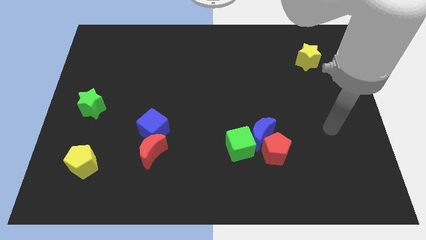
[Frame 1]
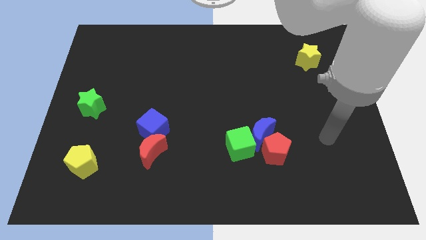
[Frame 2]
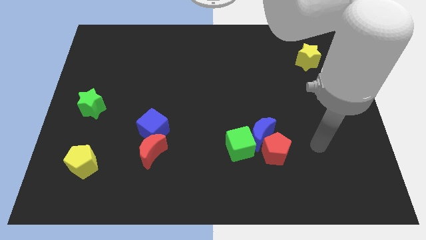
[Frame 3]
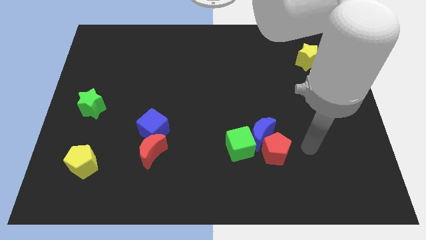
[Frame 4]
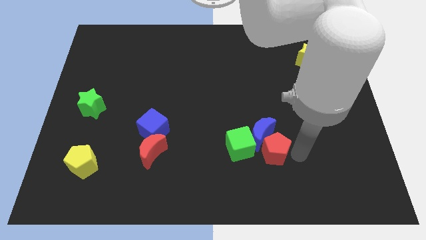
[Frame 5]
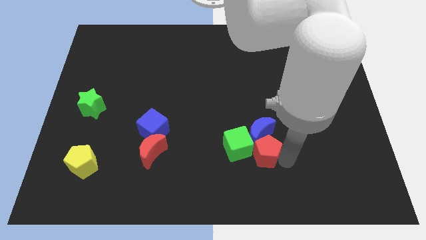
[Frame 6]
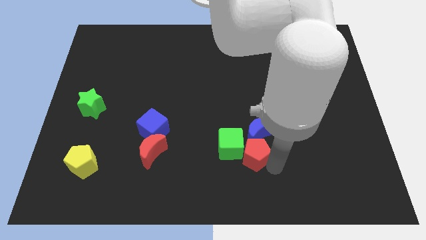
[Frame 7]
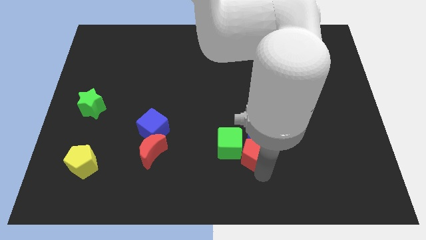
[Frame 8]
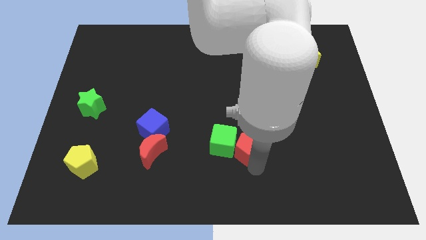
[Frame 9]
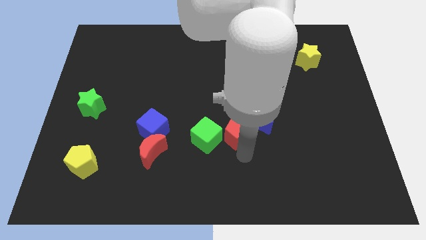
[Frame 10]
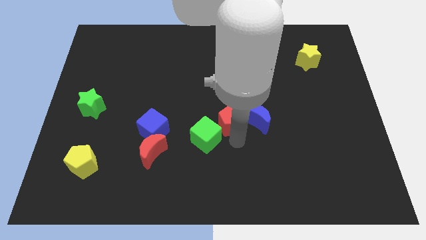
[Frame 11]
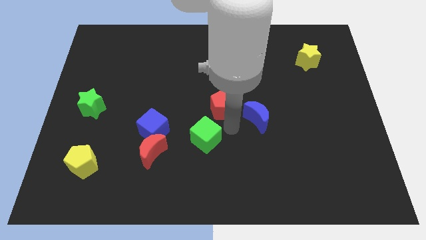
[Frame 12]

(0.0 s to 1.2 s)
move the blue moon away from the red pentagon and green cube

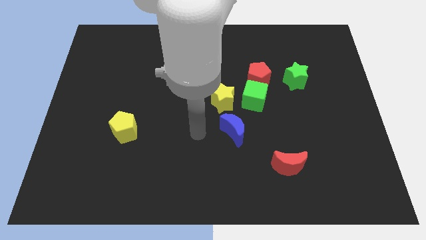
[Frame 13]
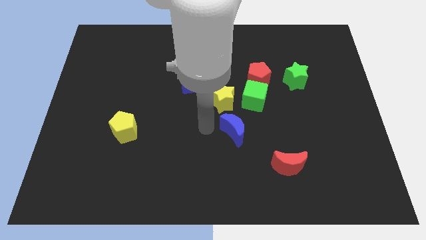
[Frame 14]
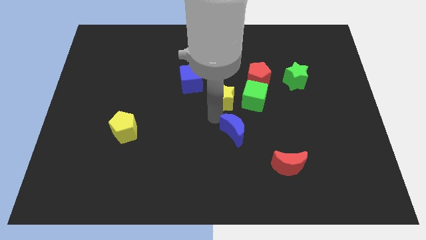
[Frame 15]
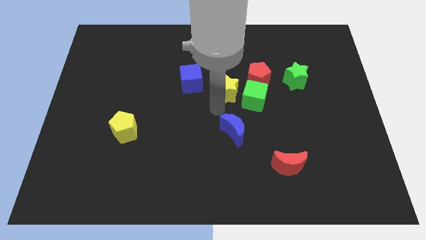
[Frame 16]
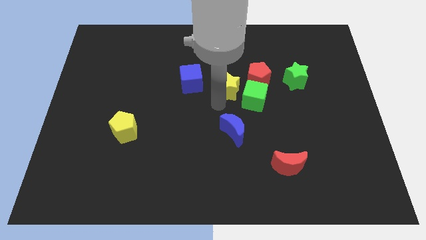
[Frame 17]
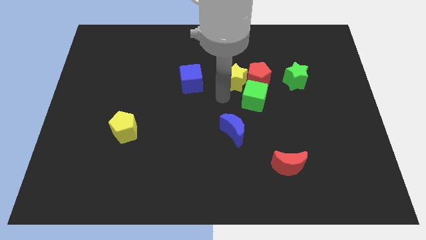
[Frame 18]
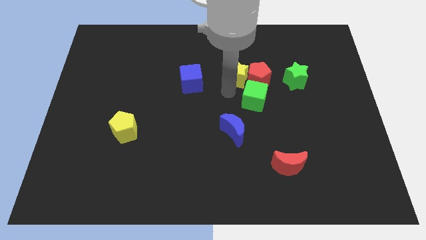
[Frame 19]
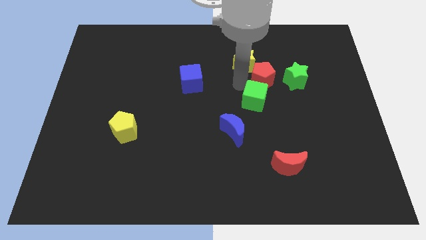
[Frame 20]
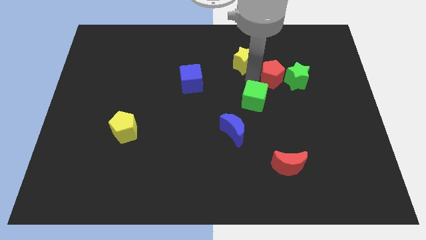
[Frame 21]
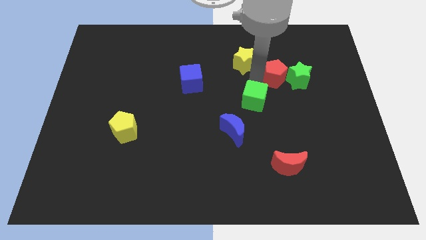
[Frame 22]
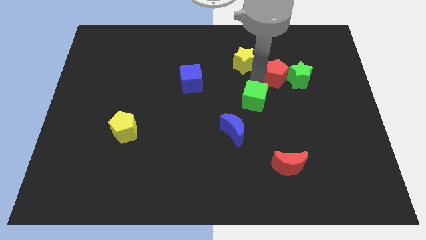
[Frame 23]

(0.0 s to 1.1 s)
separate the green cube from the red pentagon and yellow star

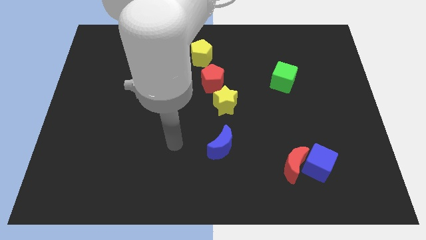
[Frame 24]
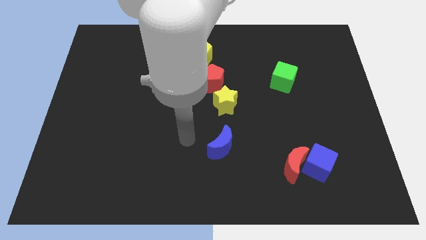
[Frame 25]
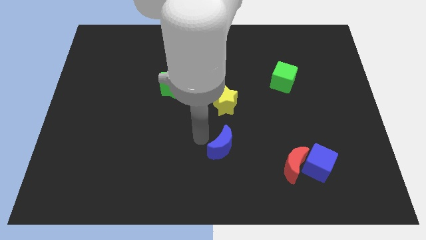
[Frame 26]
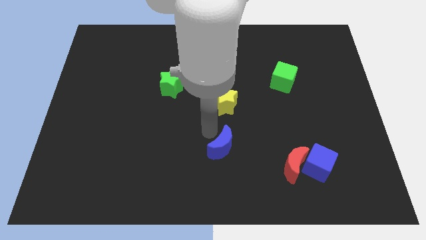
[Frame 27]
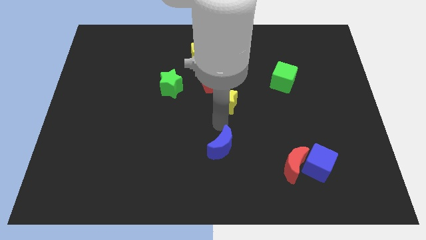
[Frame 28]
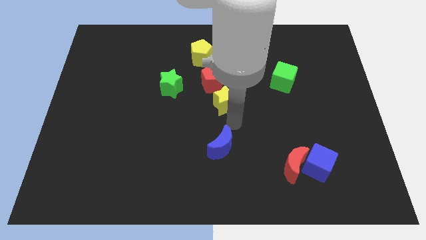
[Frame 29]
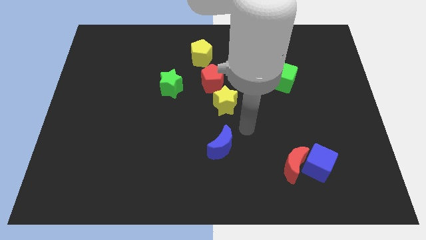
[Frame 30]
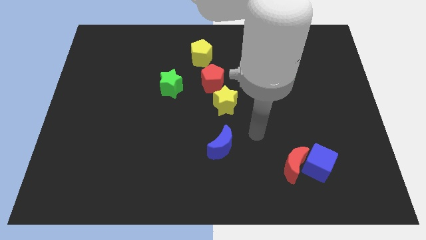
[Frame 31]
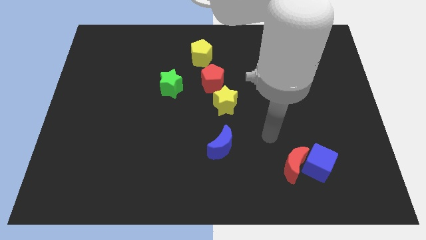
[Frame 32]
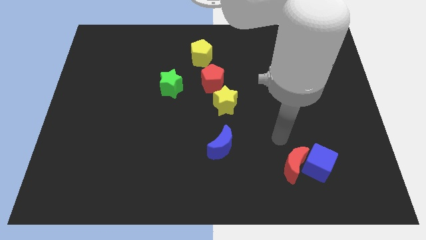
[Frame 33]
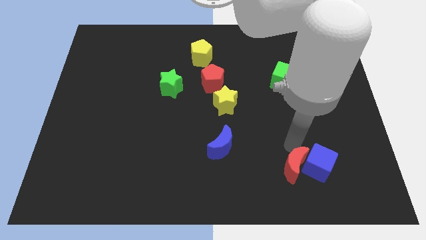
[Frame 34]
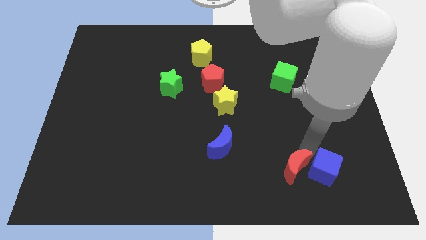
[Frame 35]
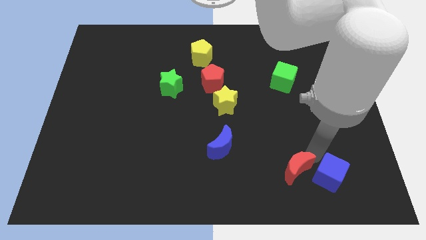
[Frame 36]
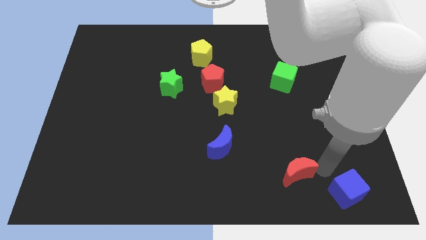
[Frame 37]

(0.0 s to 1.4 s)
separate the red moon from the blue cube

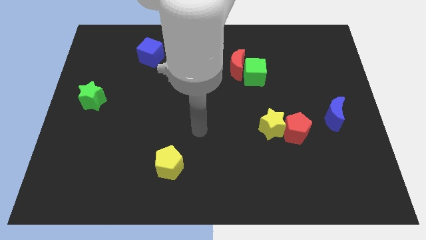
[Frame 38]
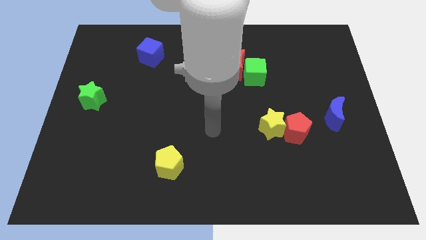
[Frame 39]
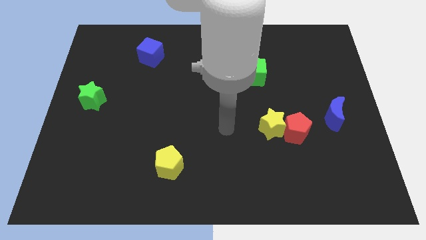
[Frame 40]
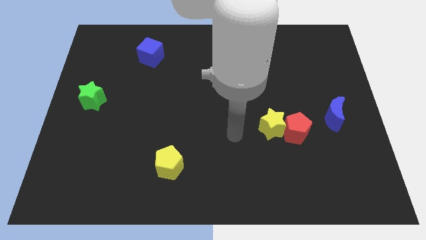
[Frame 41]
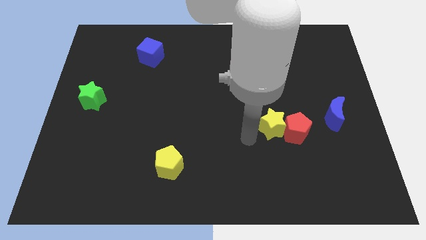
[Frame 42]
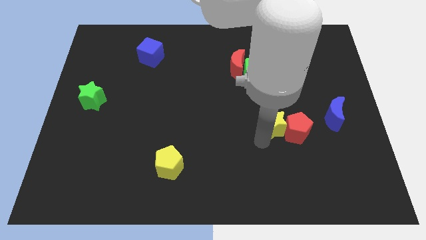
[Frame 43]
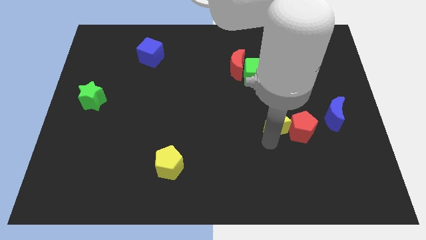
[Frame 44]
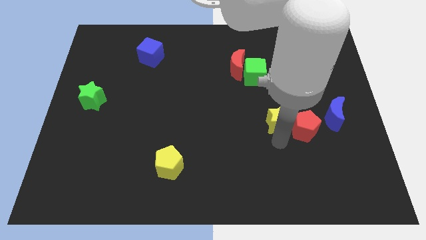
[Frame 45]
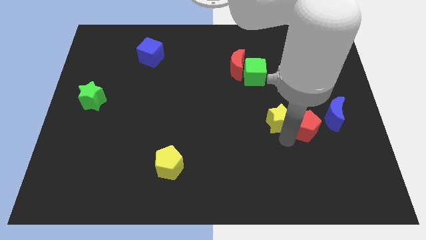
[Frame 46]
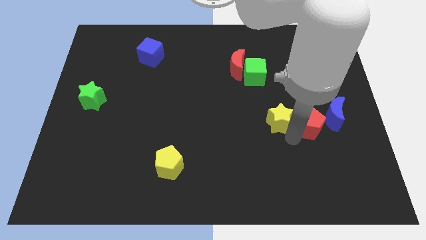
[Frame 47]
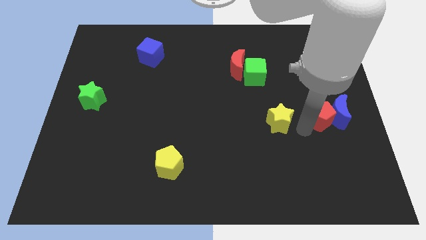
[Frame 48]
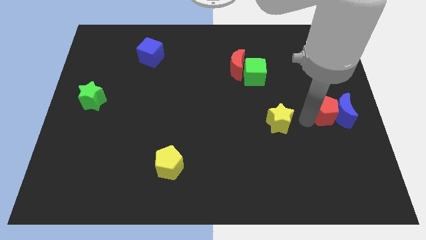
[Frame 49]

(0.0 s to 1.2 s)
pull the yellow star apart from the red pentagon

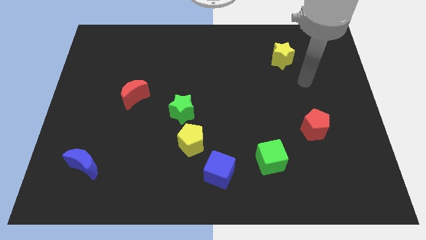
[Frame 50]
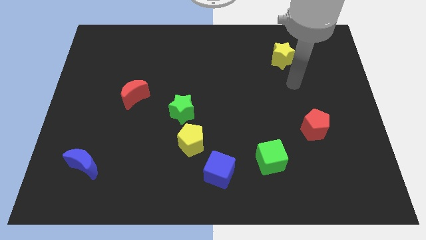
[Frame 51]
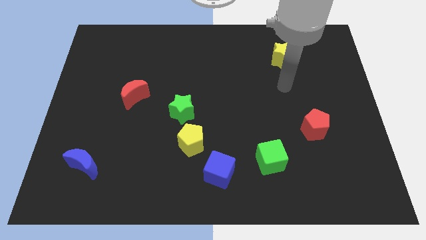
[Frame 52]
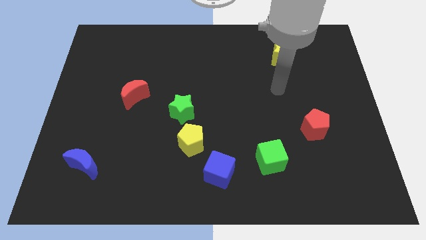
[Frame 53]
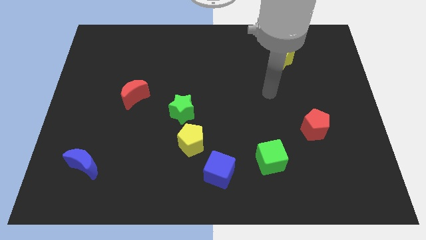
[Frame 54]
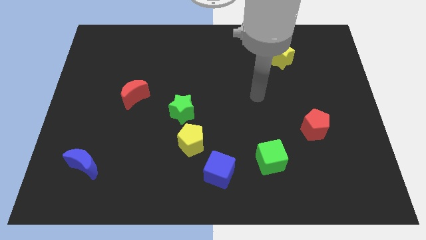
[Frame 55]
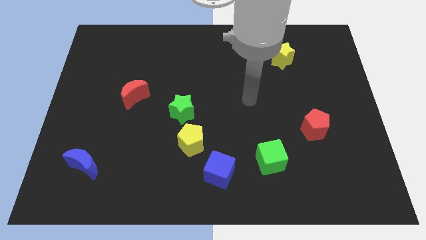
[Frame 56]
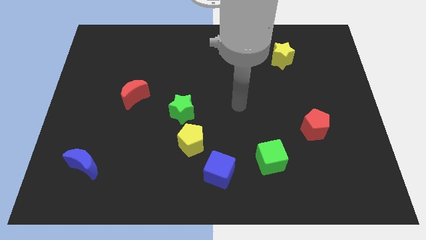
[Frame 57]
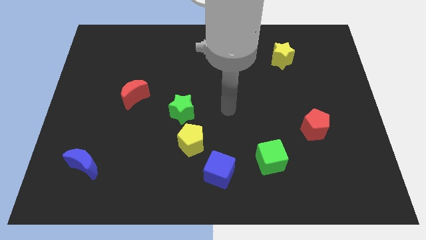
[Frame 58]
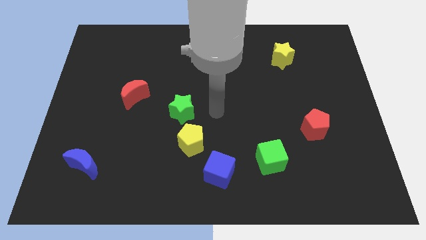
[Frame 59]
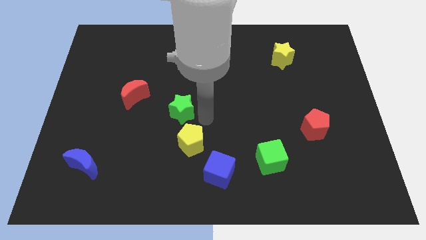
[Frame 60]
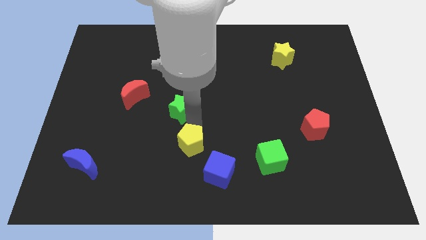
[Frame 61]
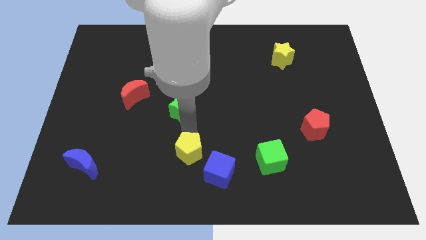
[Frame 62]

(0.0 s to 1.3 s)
separate the green star from the yellow pentagon

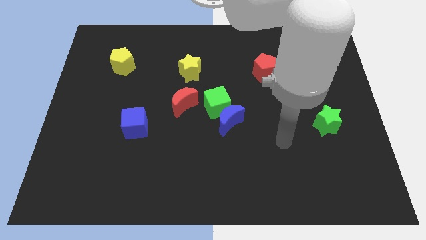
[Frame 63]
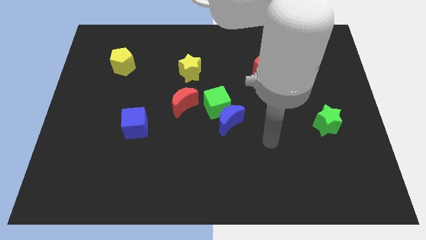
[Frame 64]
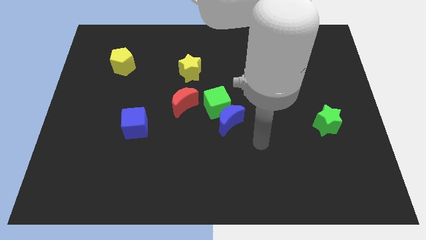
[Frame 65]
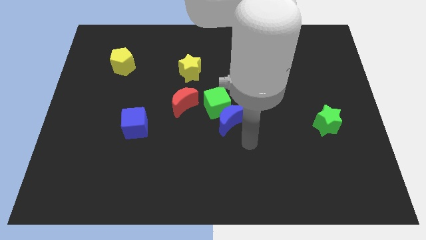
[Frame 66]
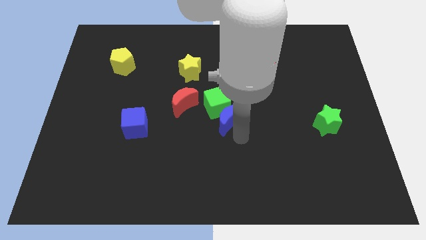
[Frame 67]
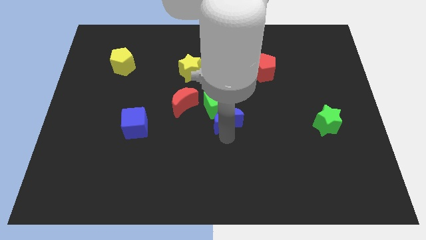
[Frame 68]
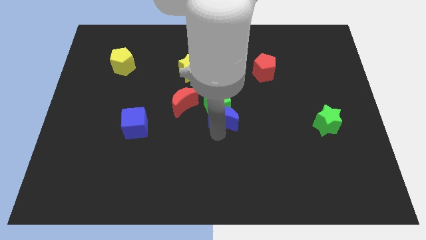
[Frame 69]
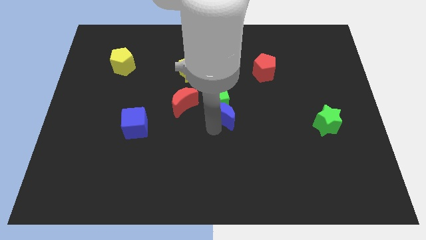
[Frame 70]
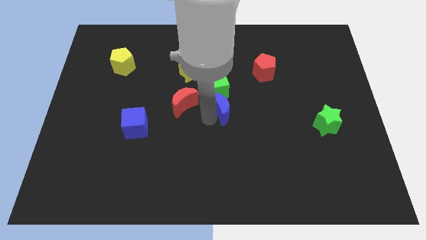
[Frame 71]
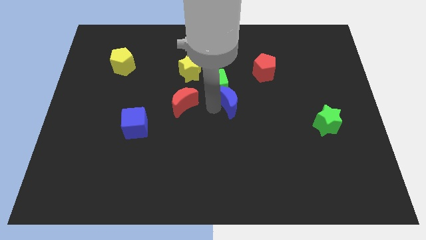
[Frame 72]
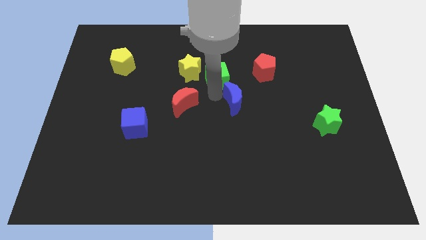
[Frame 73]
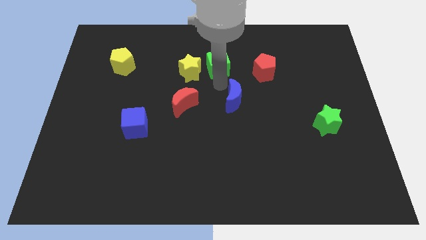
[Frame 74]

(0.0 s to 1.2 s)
separate the blue moon from the green cube

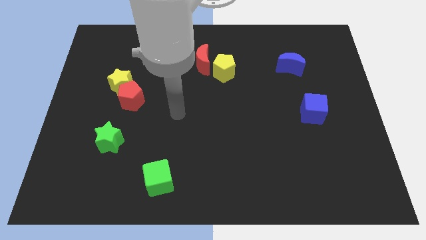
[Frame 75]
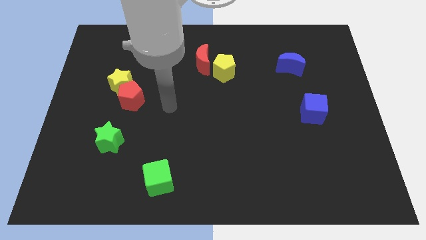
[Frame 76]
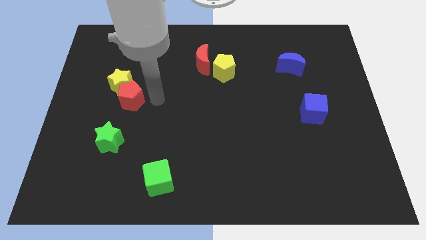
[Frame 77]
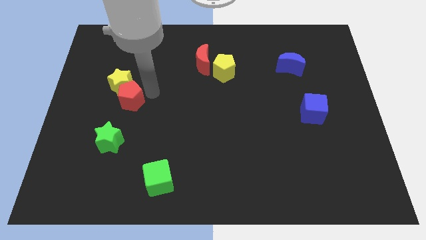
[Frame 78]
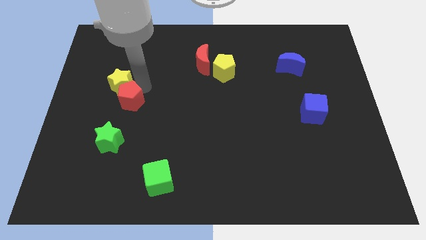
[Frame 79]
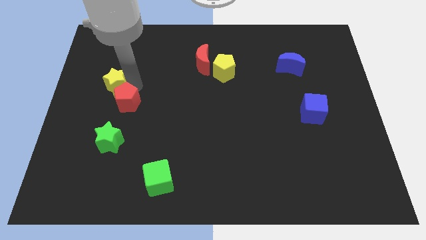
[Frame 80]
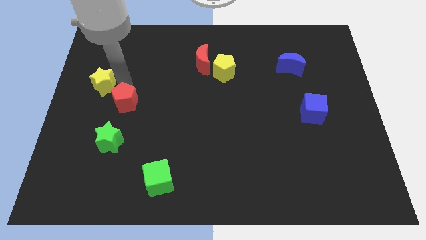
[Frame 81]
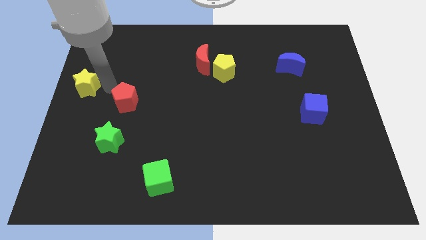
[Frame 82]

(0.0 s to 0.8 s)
move the red pentagon away from the yellow star

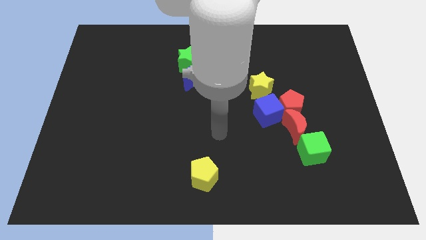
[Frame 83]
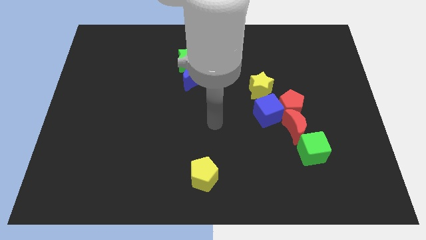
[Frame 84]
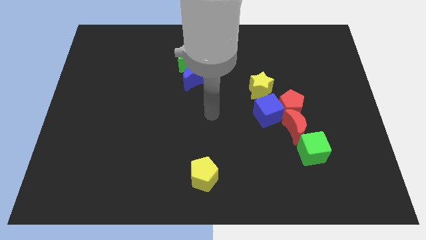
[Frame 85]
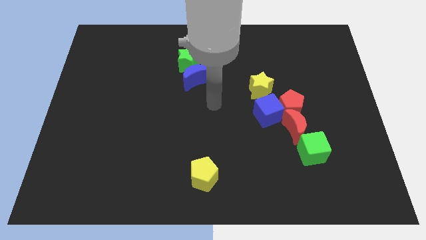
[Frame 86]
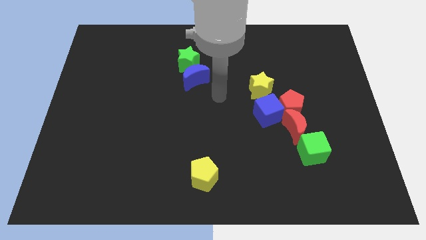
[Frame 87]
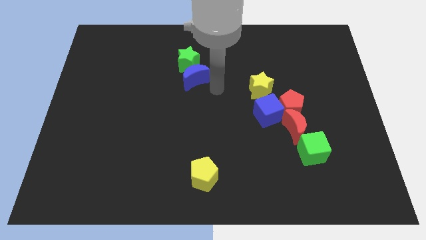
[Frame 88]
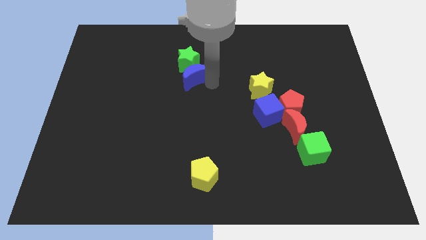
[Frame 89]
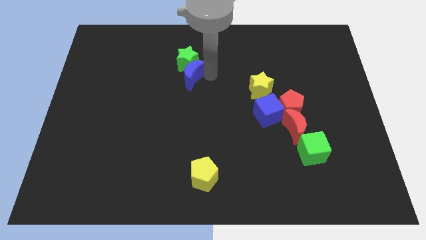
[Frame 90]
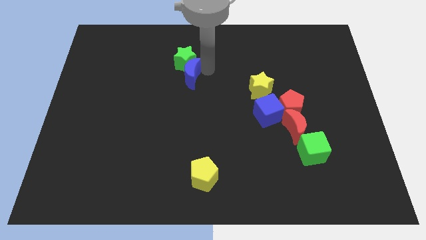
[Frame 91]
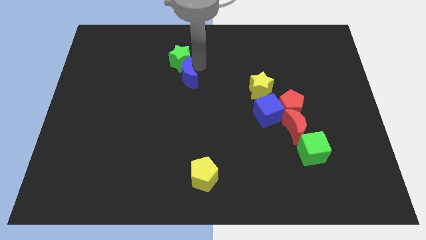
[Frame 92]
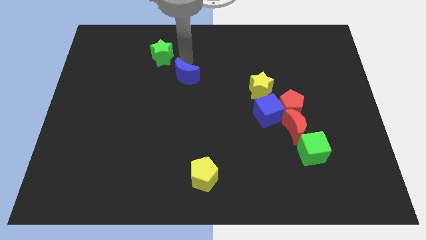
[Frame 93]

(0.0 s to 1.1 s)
pull the blue moon apart from the green star
